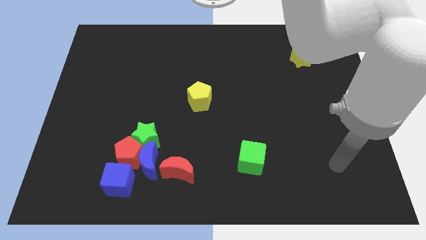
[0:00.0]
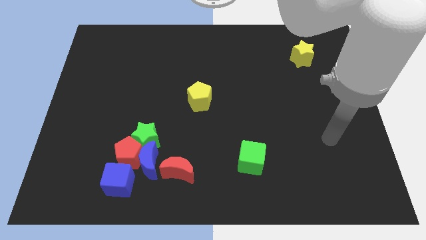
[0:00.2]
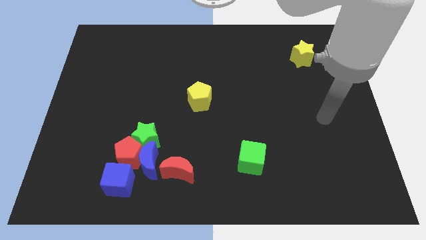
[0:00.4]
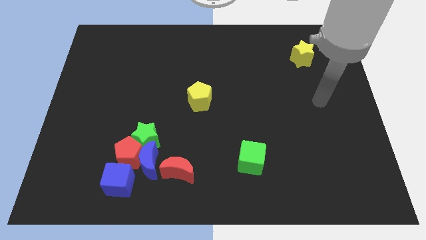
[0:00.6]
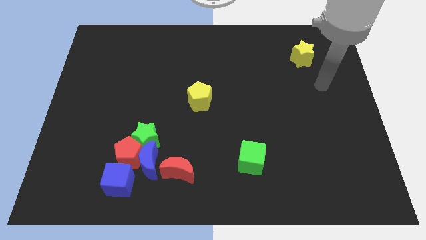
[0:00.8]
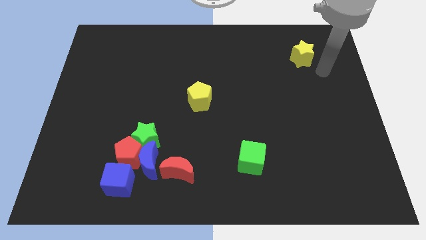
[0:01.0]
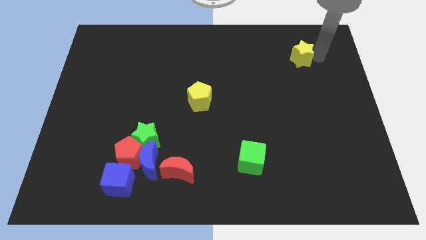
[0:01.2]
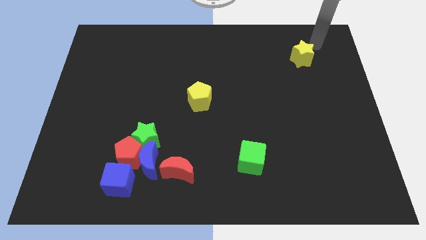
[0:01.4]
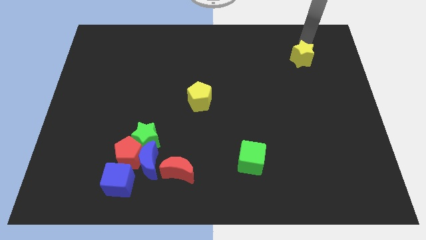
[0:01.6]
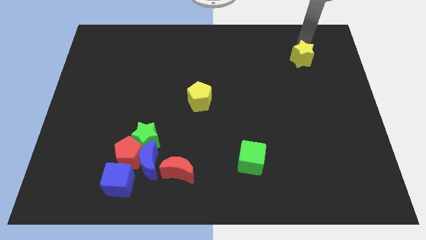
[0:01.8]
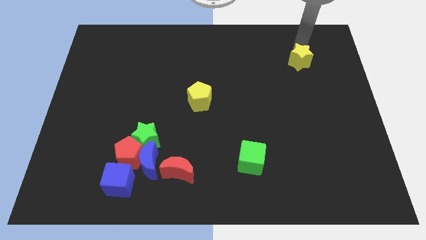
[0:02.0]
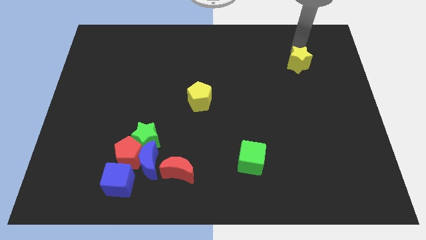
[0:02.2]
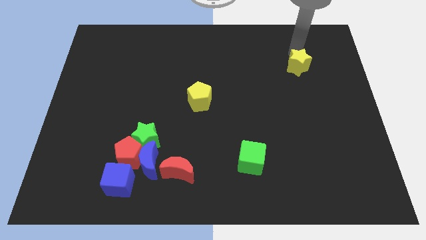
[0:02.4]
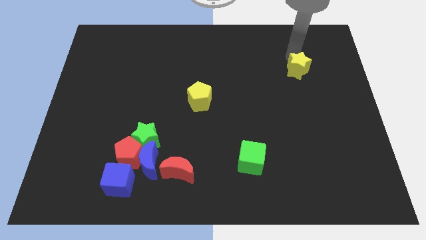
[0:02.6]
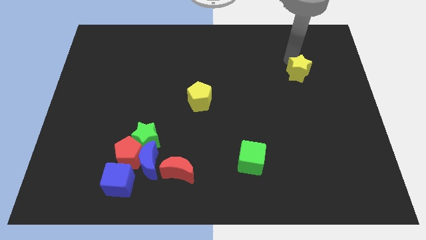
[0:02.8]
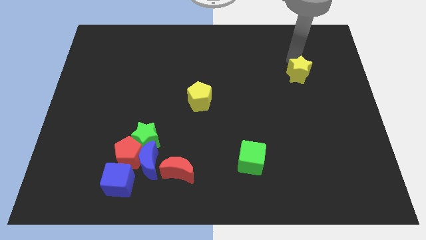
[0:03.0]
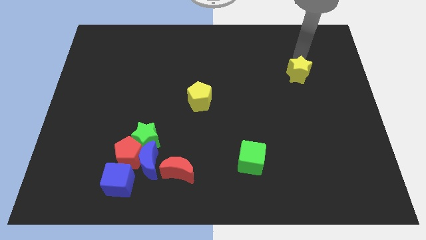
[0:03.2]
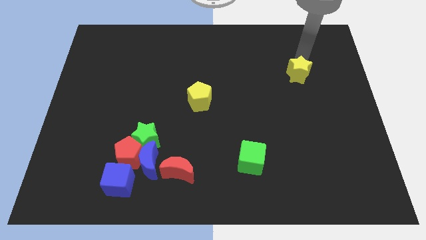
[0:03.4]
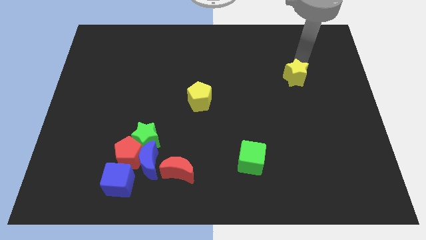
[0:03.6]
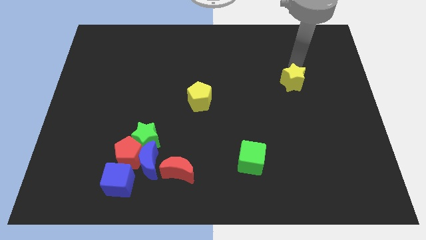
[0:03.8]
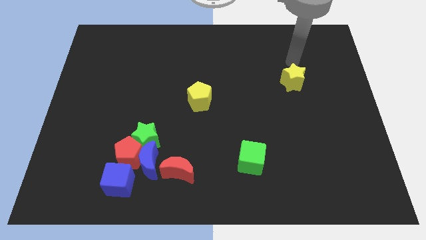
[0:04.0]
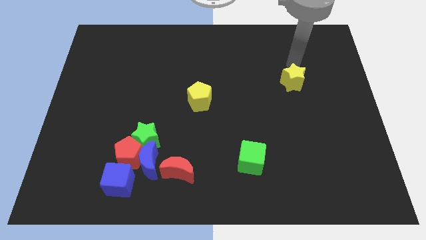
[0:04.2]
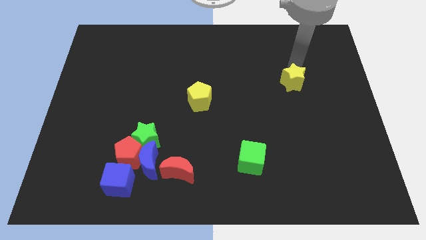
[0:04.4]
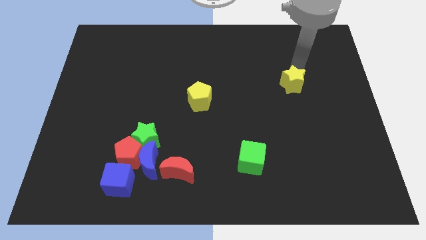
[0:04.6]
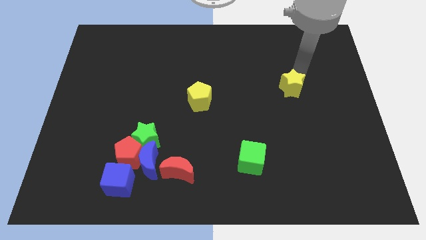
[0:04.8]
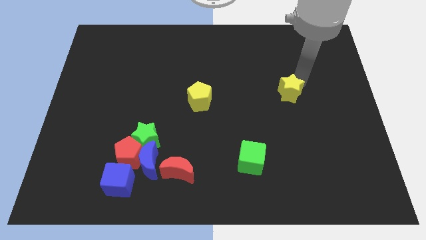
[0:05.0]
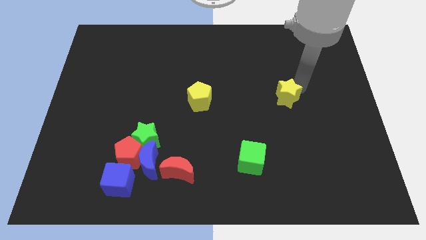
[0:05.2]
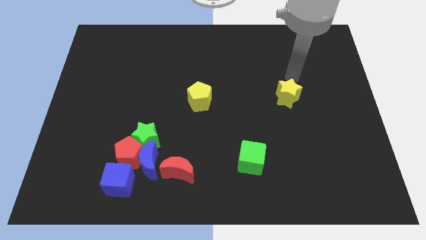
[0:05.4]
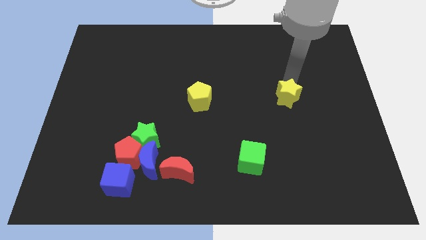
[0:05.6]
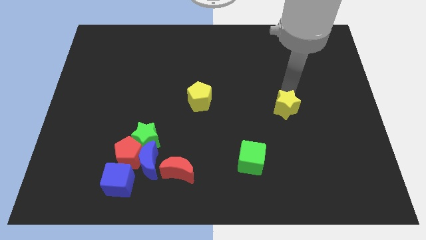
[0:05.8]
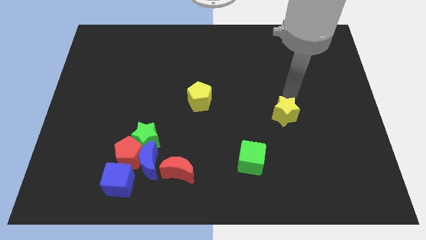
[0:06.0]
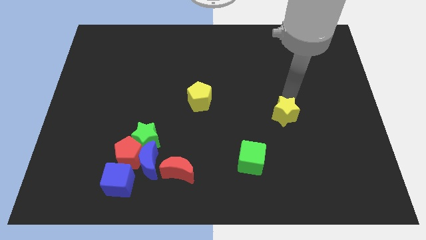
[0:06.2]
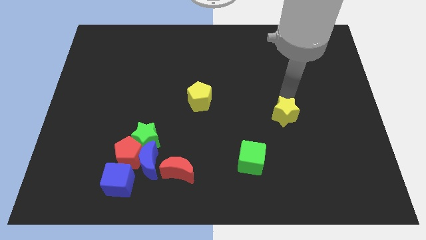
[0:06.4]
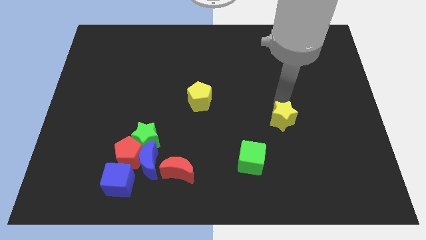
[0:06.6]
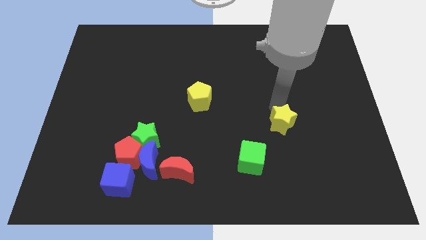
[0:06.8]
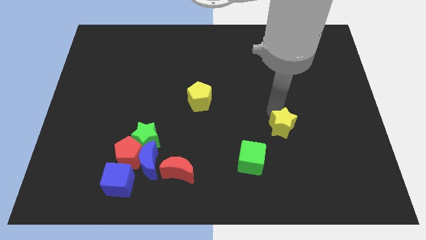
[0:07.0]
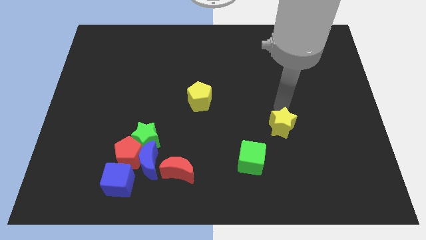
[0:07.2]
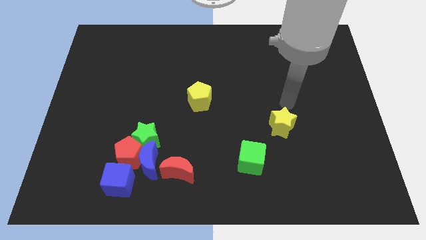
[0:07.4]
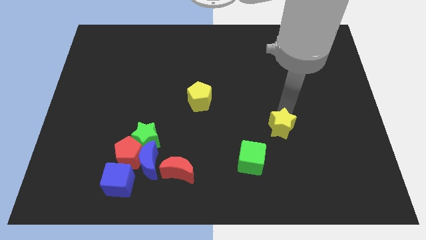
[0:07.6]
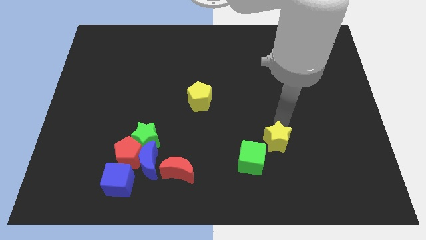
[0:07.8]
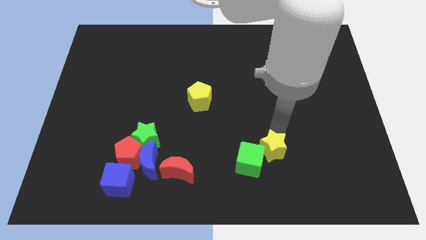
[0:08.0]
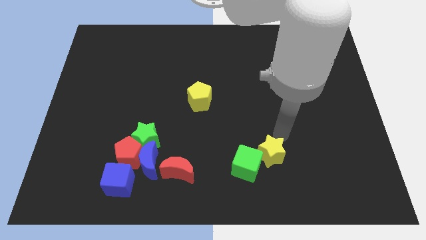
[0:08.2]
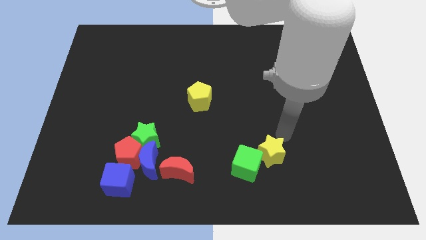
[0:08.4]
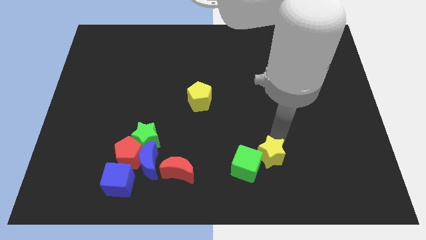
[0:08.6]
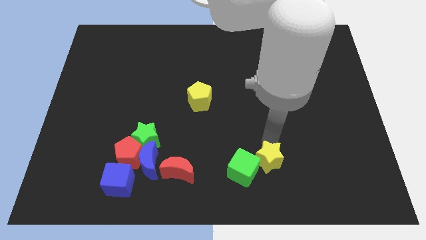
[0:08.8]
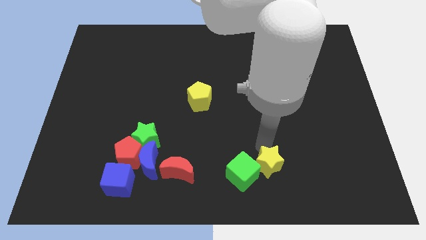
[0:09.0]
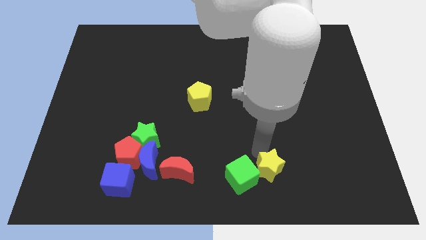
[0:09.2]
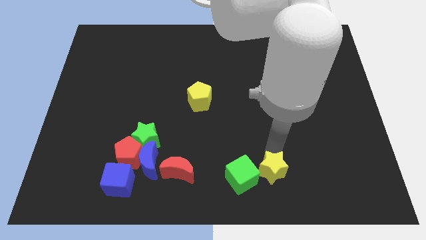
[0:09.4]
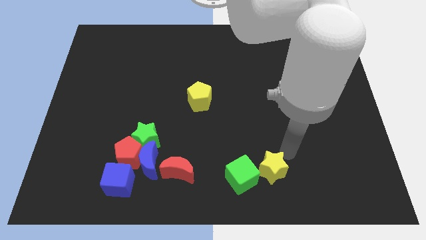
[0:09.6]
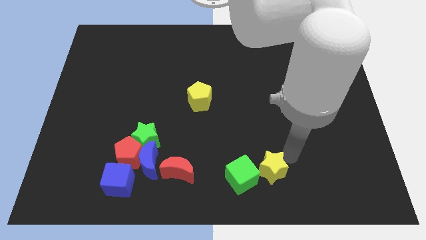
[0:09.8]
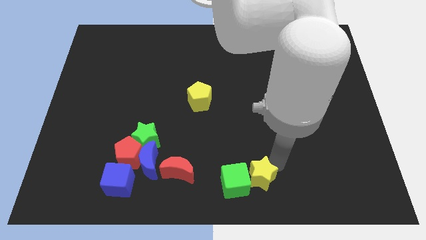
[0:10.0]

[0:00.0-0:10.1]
move the yellow star to the bottom

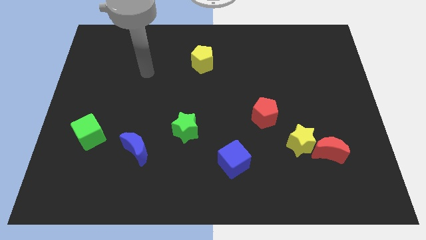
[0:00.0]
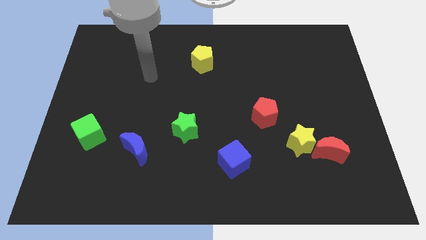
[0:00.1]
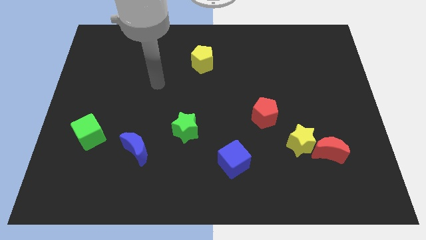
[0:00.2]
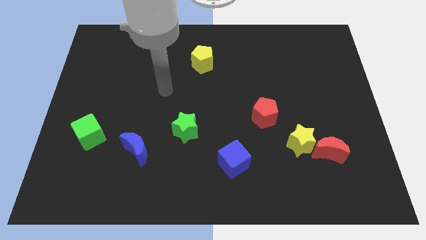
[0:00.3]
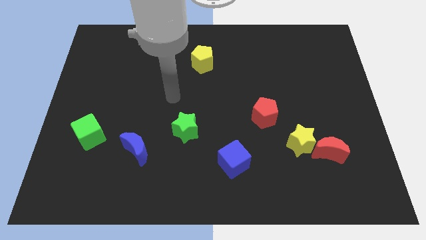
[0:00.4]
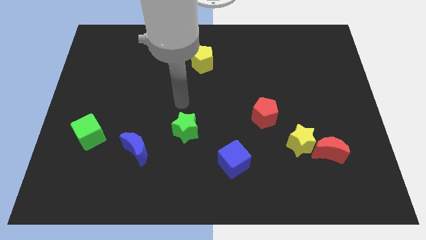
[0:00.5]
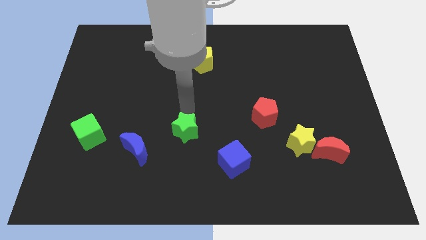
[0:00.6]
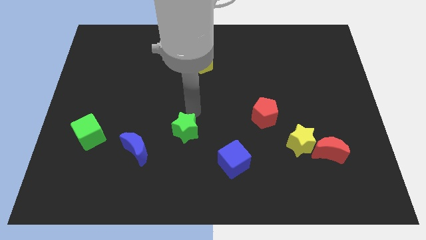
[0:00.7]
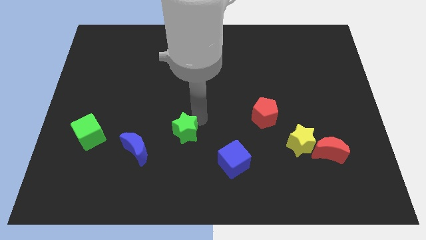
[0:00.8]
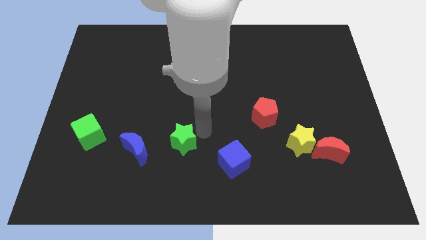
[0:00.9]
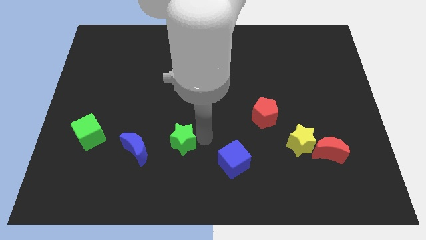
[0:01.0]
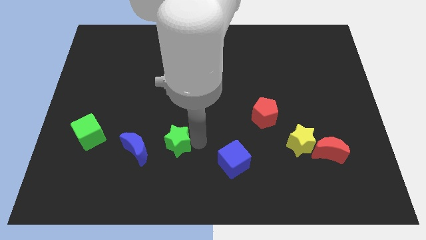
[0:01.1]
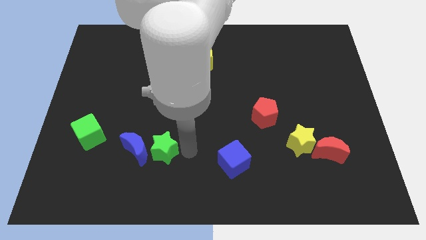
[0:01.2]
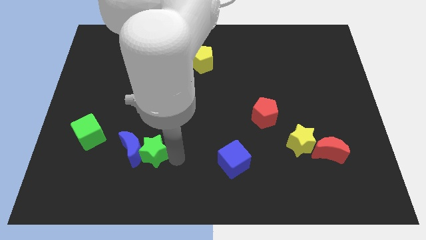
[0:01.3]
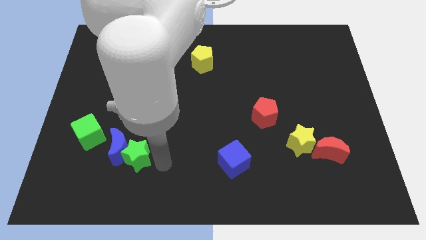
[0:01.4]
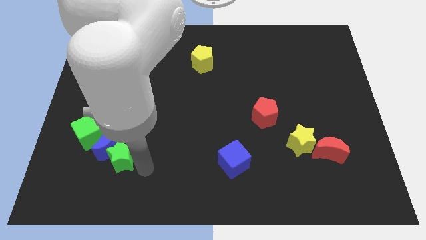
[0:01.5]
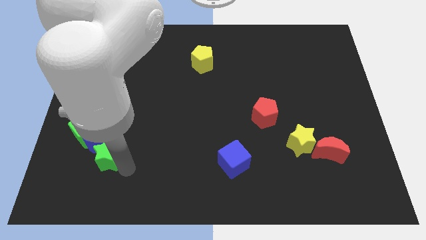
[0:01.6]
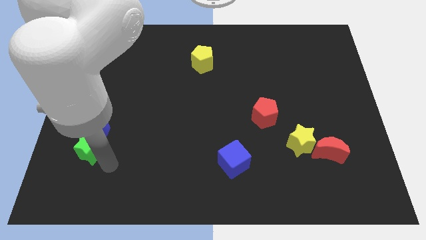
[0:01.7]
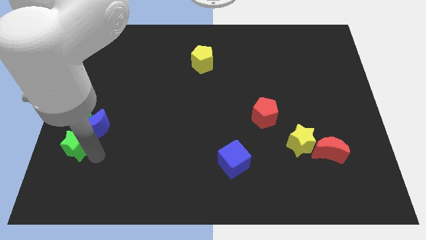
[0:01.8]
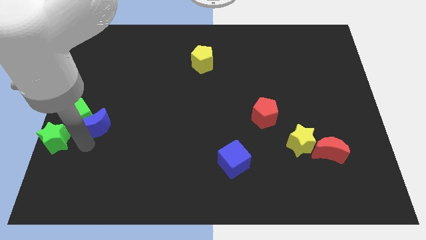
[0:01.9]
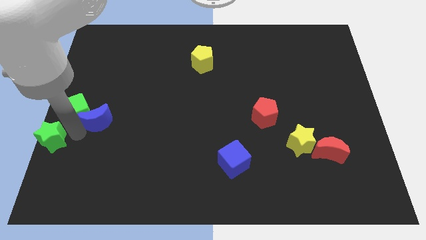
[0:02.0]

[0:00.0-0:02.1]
slide the blue moon to the left side of the board
